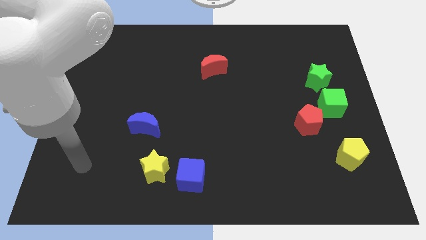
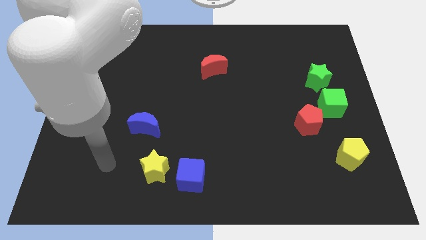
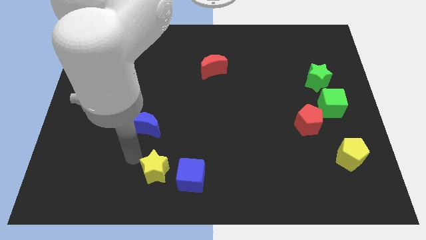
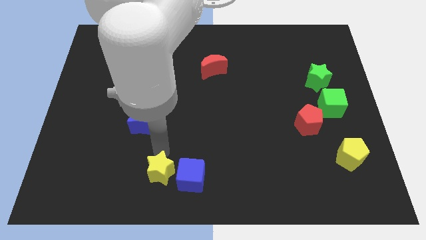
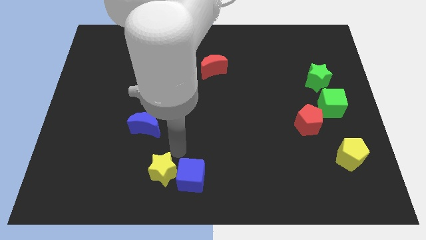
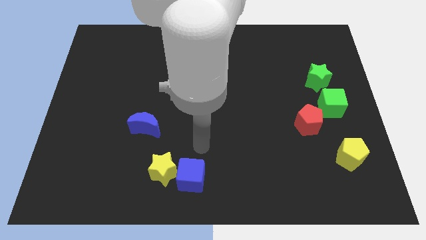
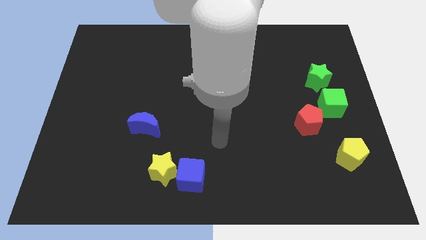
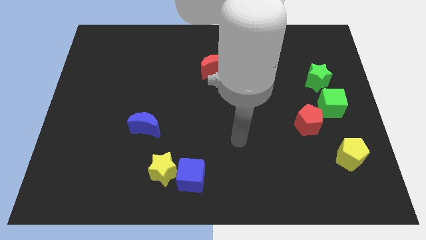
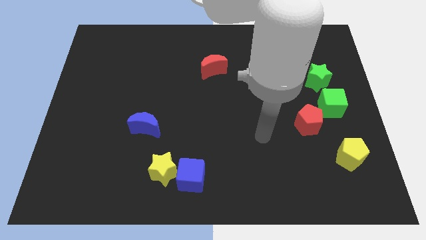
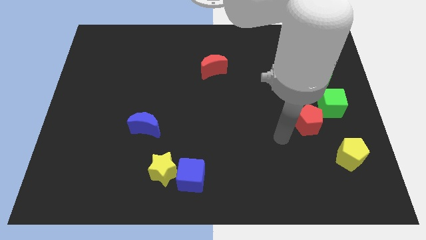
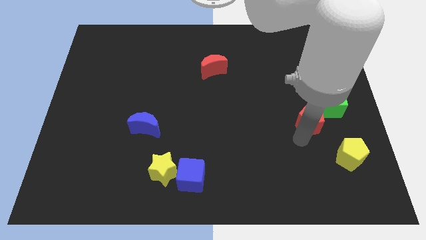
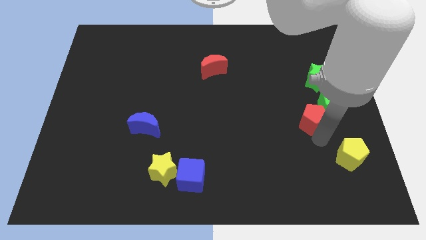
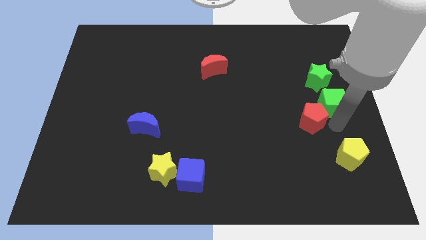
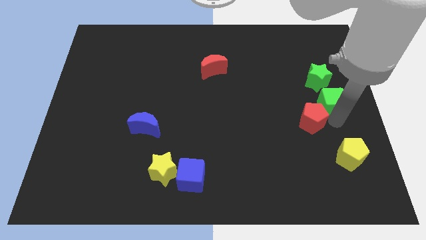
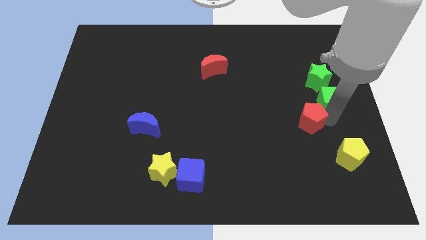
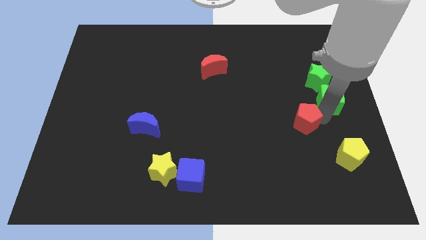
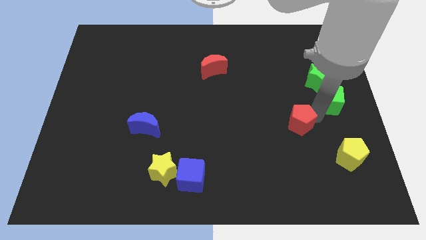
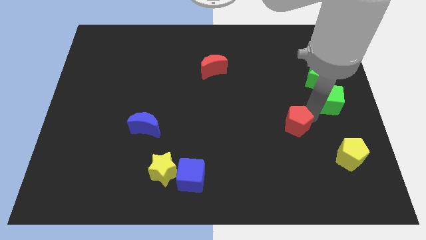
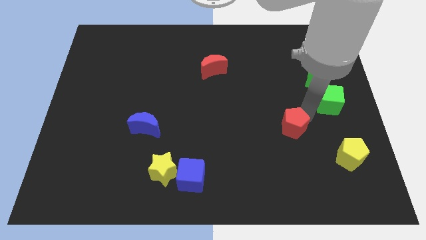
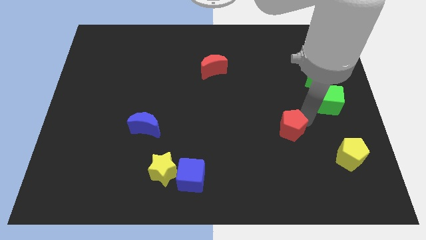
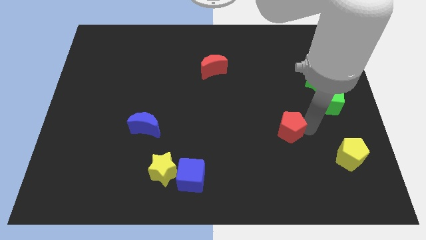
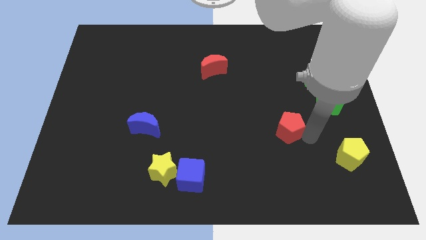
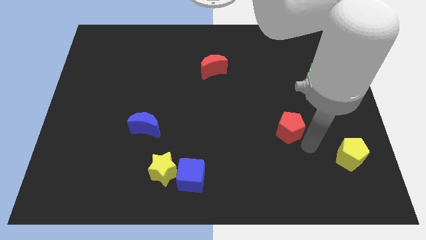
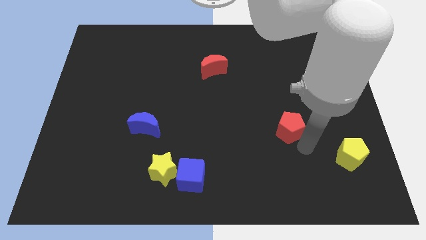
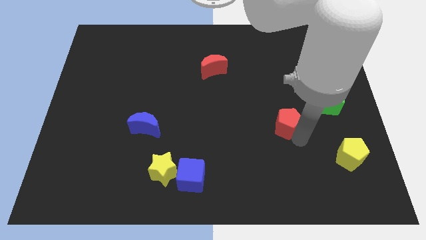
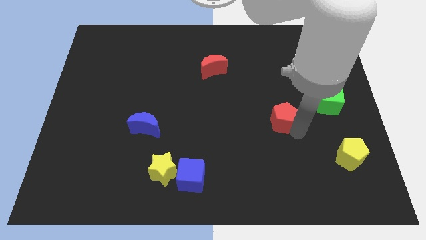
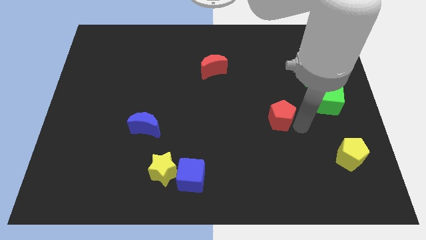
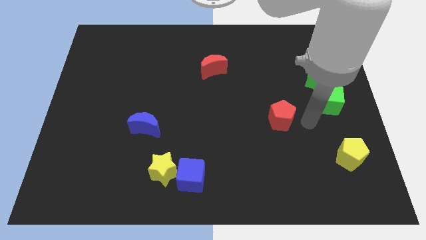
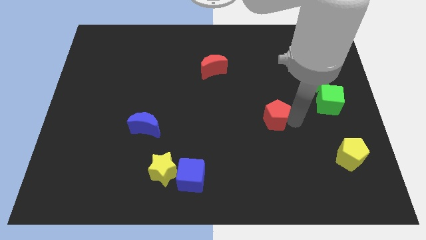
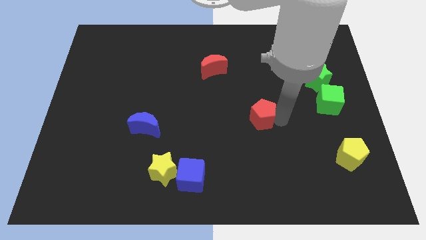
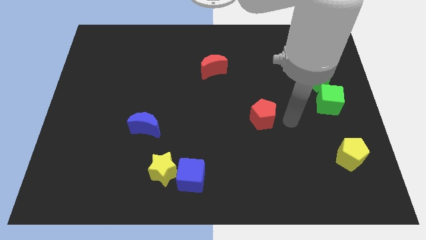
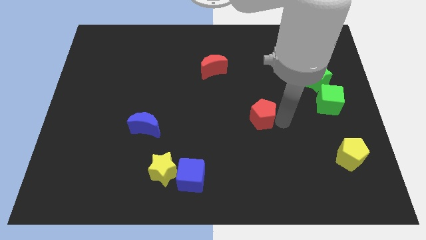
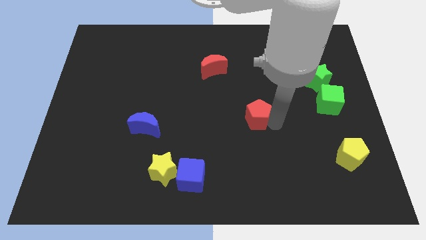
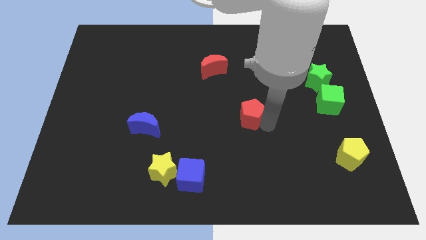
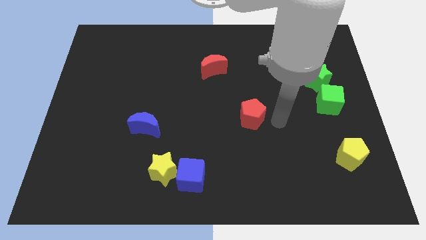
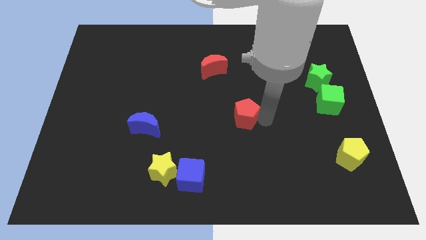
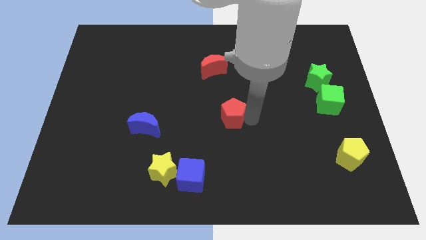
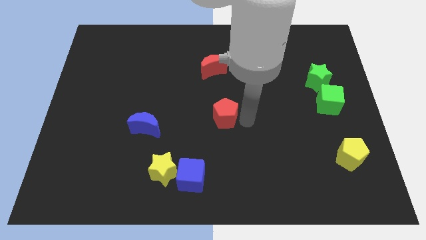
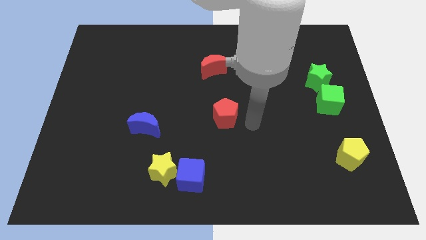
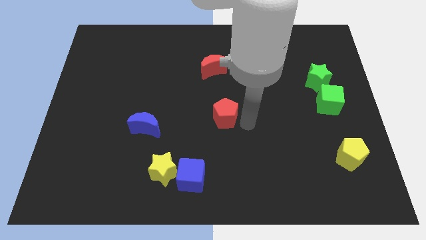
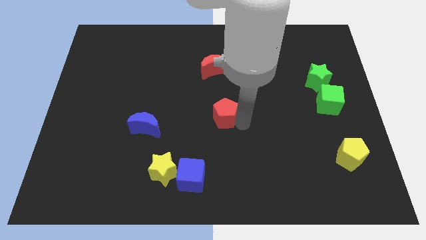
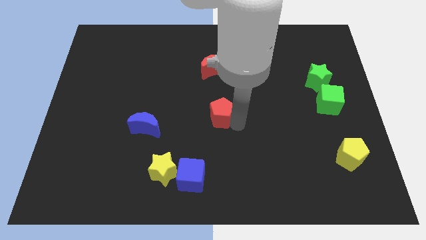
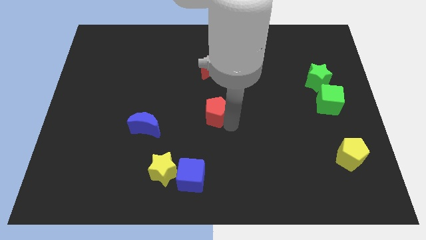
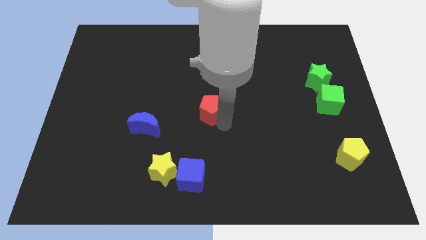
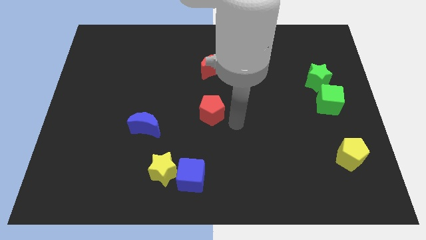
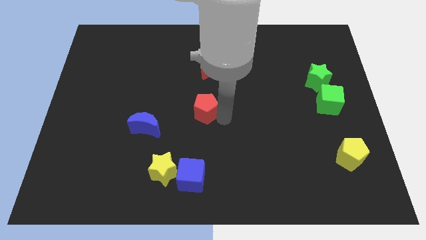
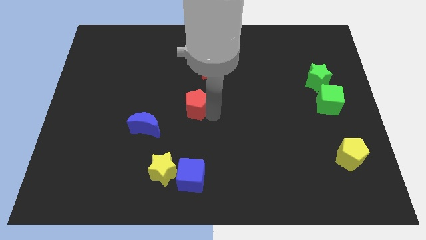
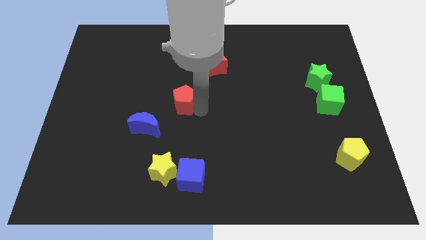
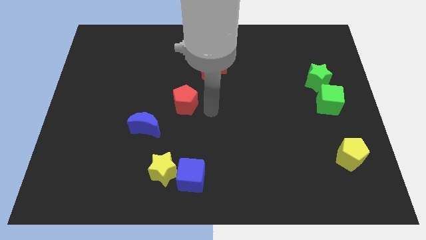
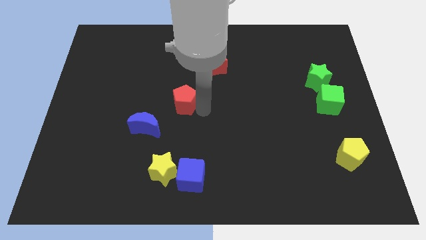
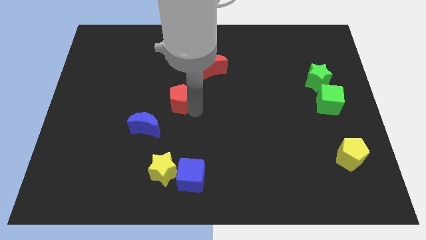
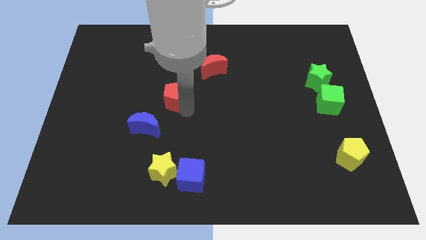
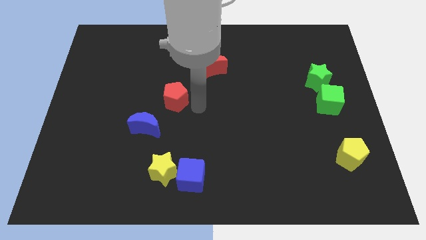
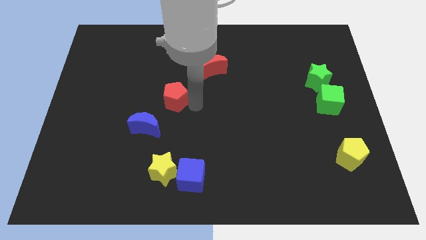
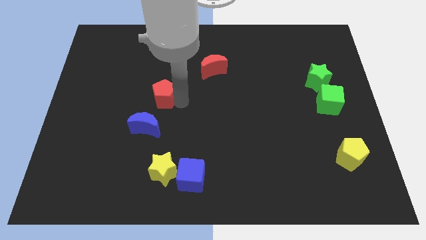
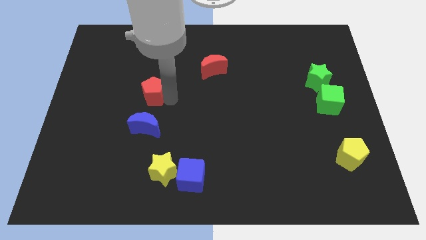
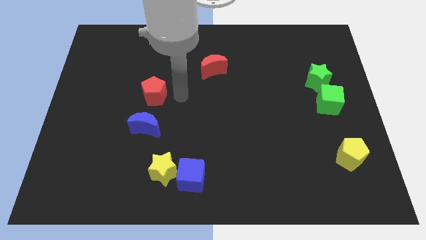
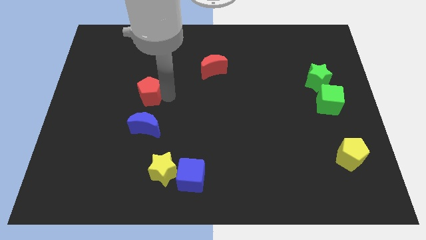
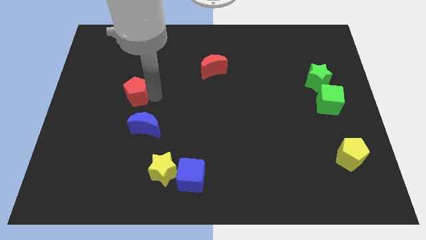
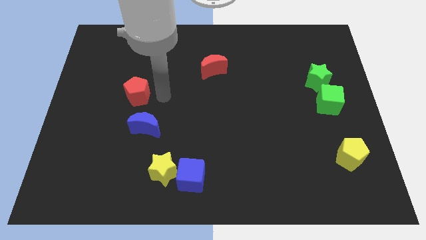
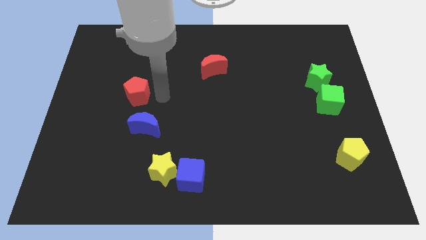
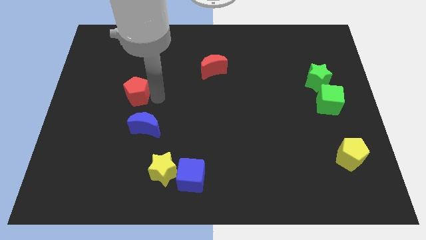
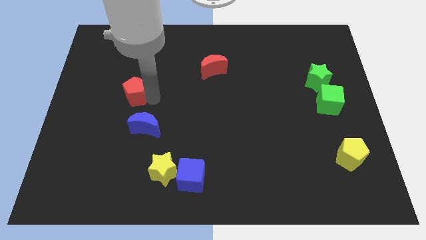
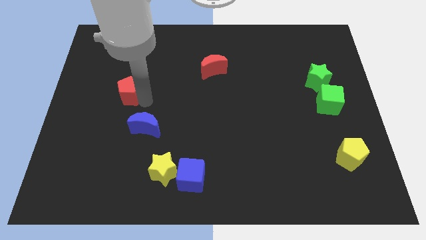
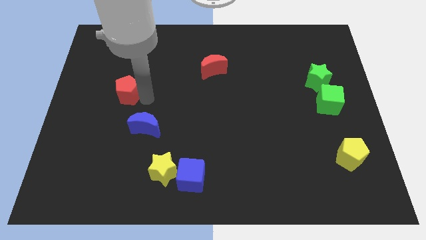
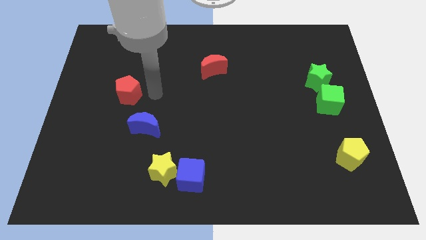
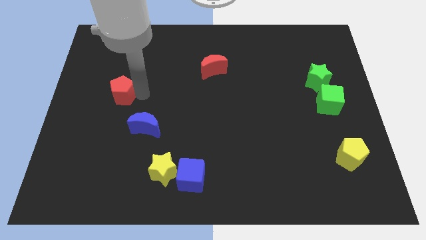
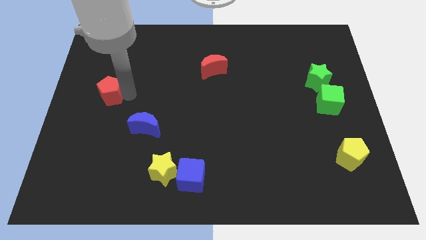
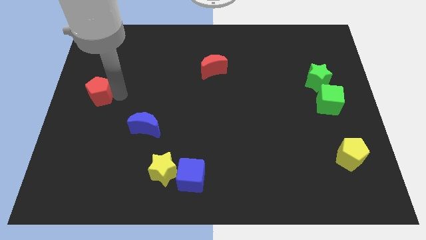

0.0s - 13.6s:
push the red pentagon to the center left
